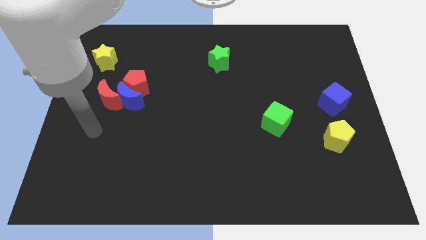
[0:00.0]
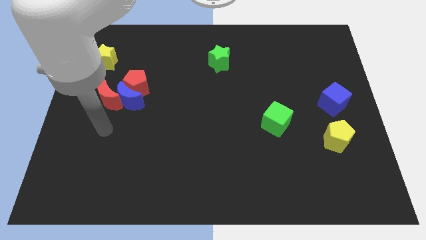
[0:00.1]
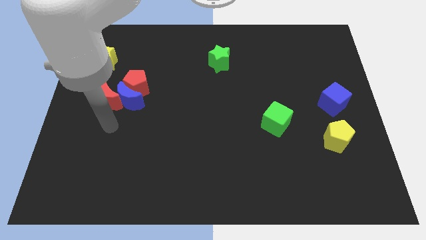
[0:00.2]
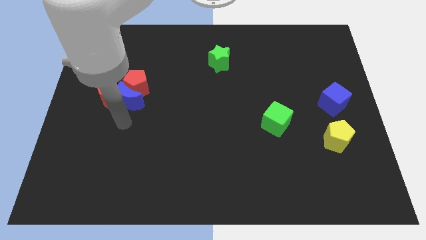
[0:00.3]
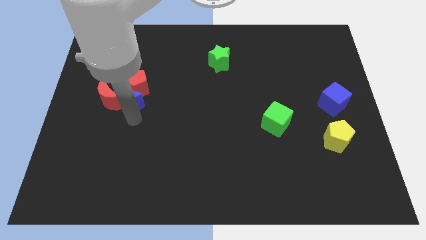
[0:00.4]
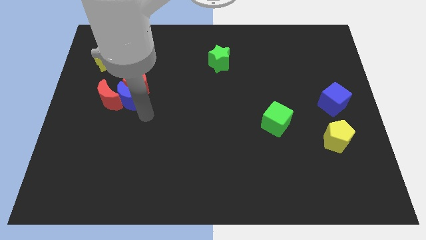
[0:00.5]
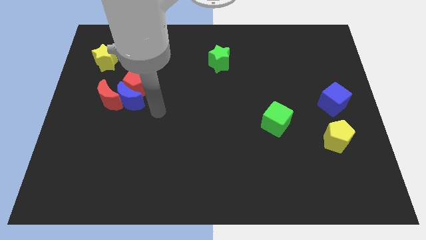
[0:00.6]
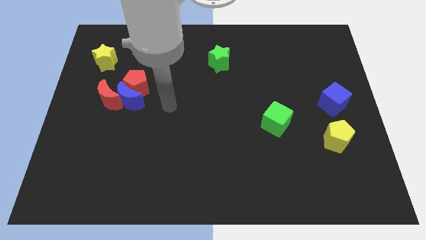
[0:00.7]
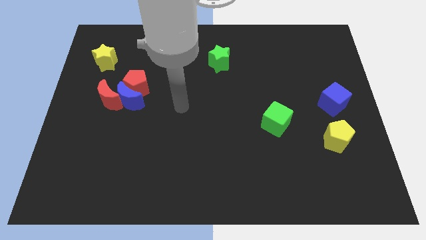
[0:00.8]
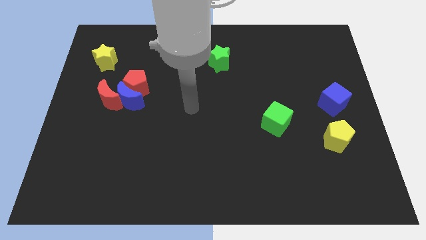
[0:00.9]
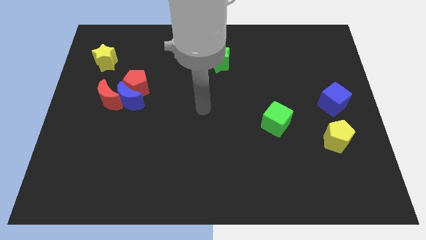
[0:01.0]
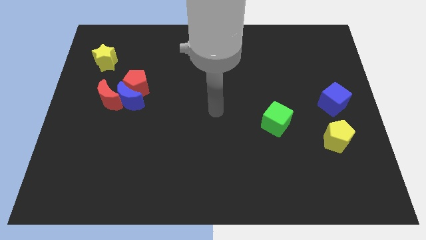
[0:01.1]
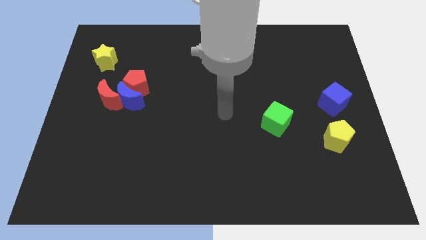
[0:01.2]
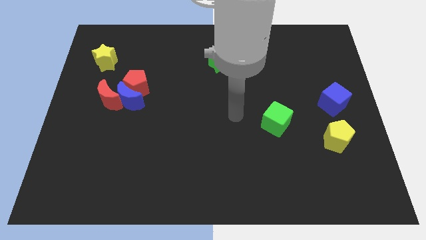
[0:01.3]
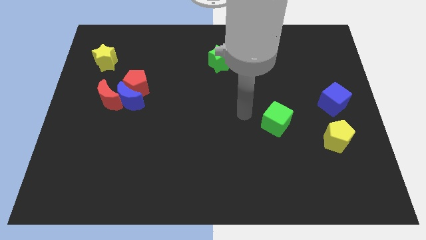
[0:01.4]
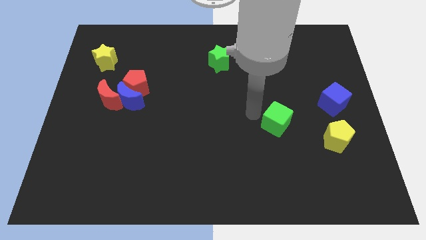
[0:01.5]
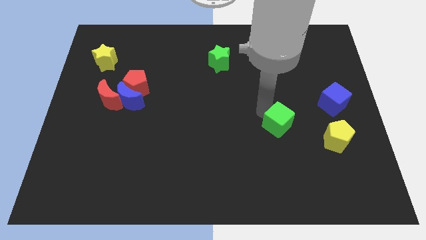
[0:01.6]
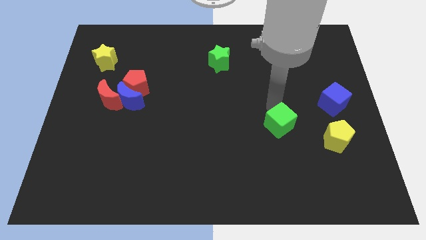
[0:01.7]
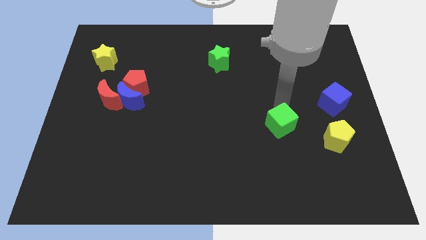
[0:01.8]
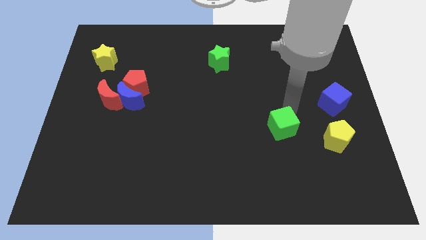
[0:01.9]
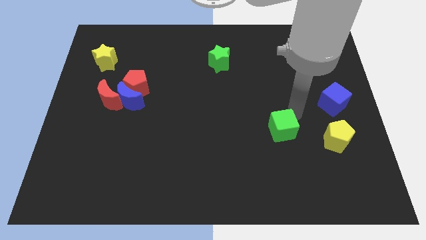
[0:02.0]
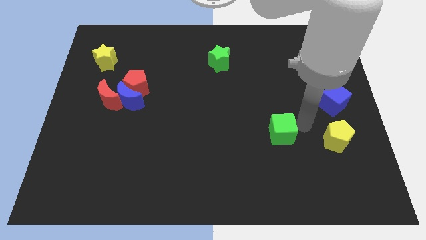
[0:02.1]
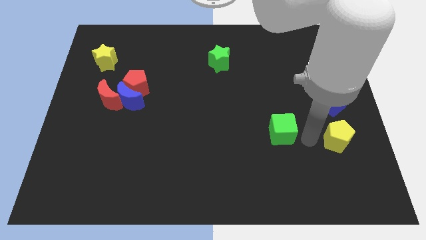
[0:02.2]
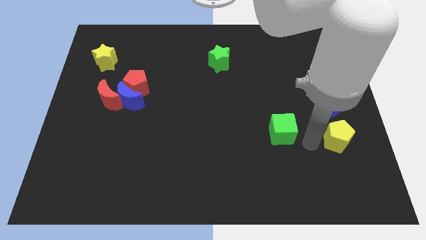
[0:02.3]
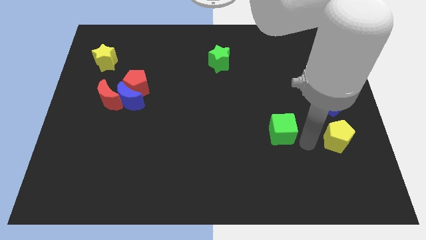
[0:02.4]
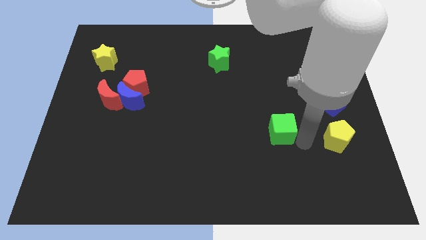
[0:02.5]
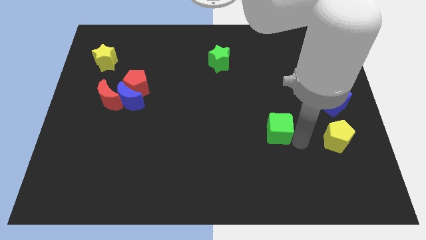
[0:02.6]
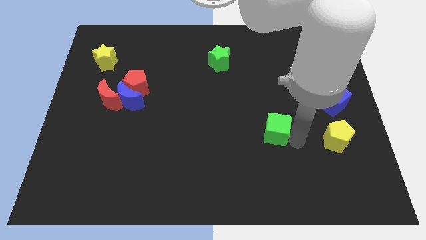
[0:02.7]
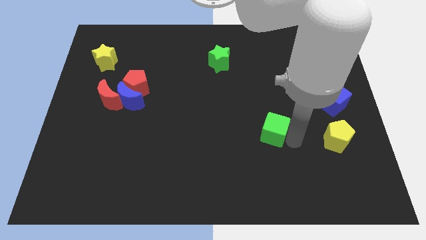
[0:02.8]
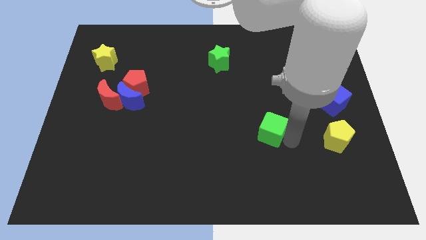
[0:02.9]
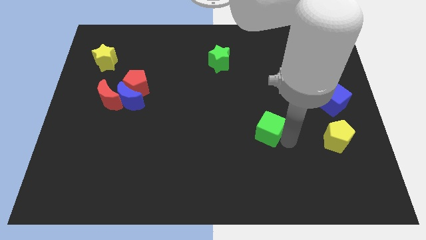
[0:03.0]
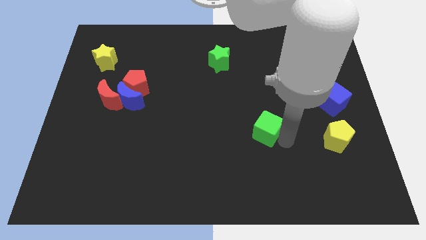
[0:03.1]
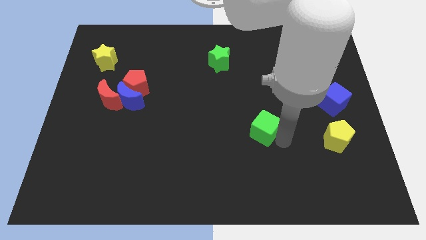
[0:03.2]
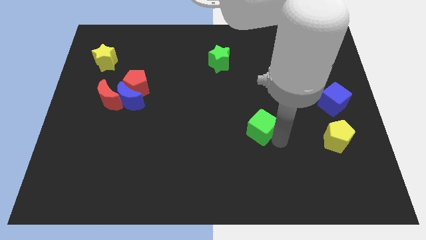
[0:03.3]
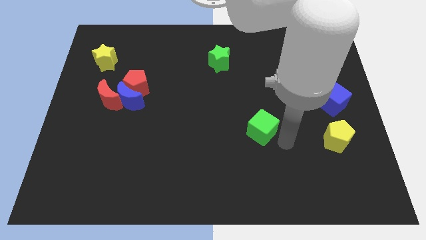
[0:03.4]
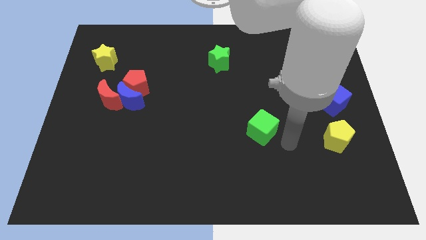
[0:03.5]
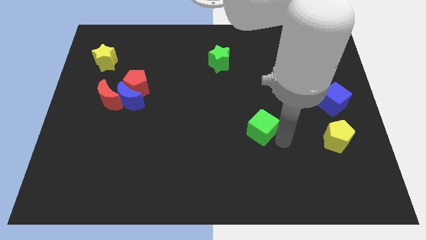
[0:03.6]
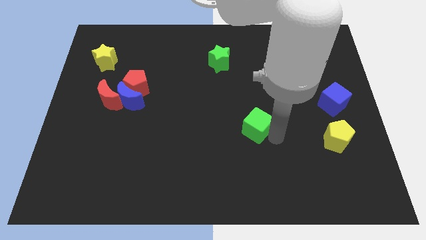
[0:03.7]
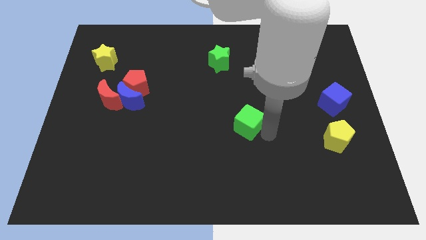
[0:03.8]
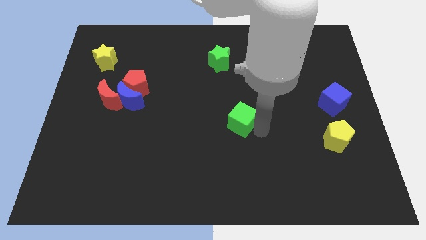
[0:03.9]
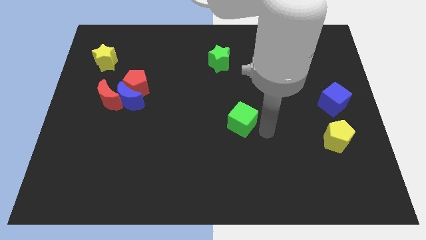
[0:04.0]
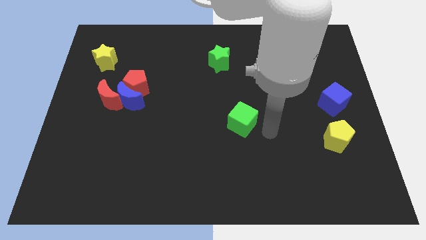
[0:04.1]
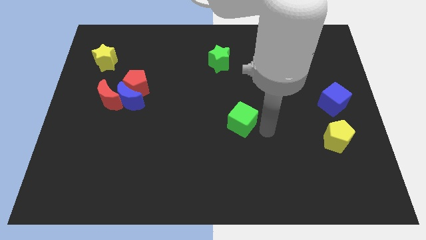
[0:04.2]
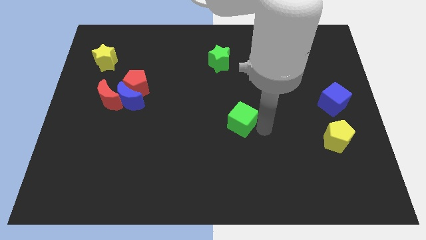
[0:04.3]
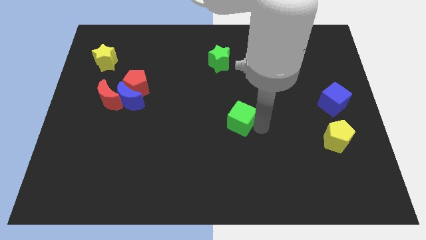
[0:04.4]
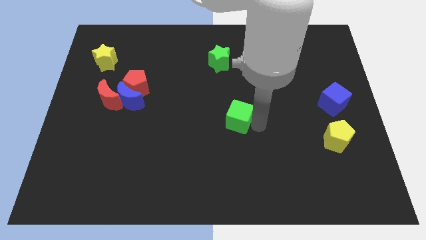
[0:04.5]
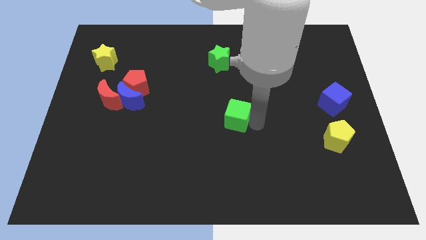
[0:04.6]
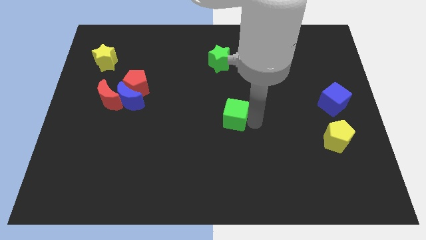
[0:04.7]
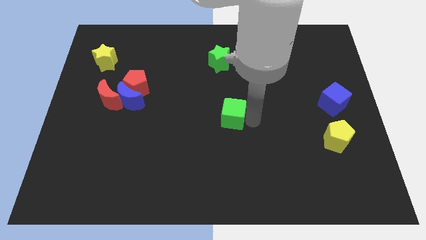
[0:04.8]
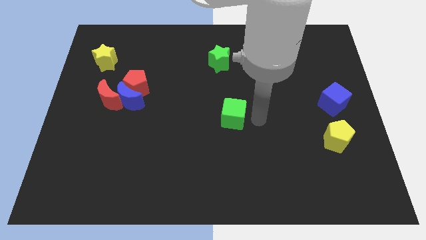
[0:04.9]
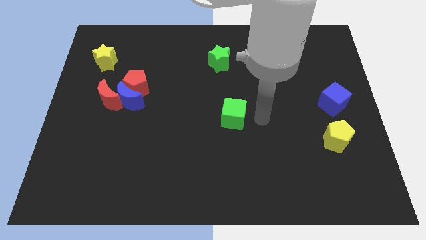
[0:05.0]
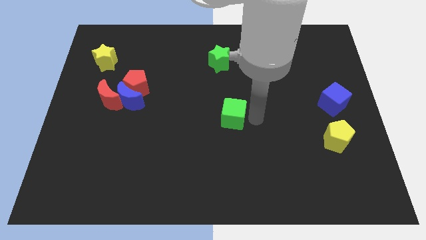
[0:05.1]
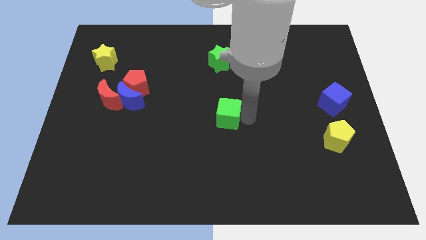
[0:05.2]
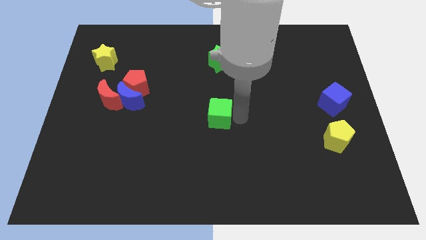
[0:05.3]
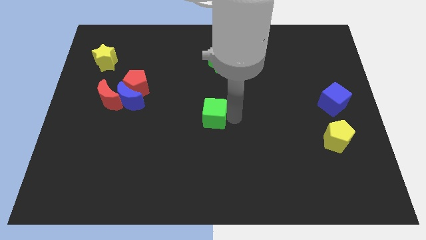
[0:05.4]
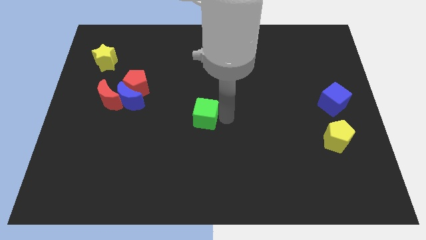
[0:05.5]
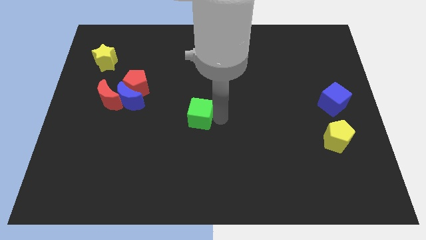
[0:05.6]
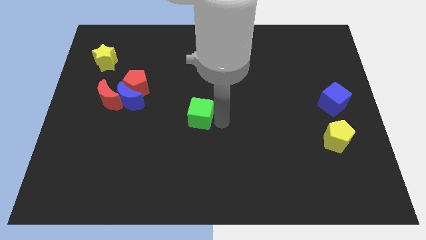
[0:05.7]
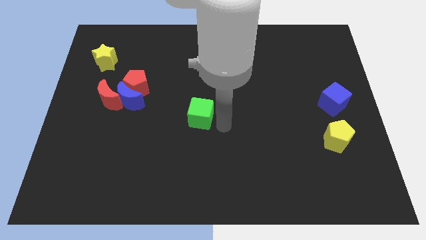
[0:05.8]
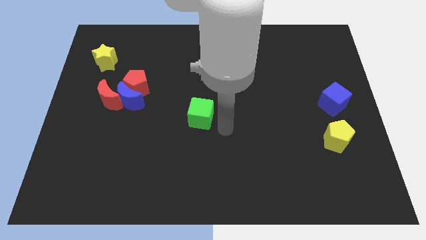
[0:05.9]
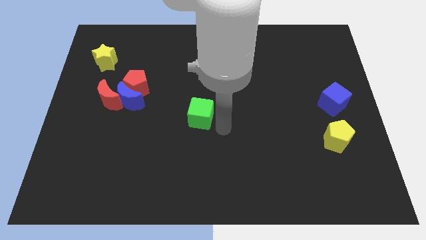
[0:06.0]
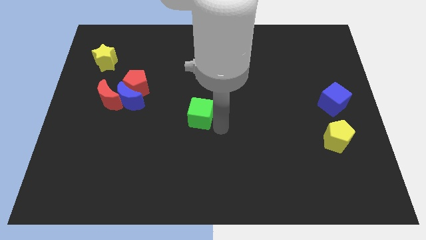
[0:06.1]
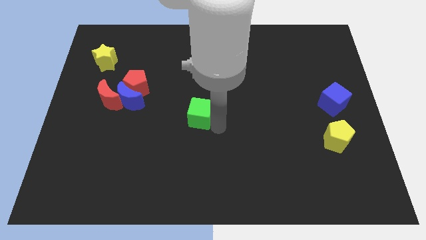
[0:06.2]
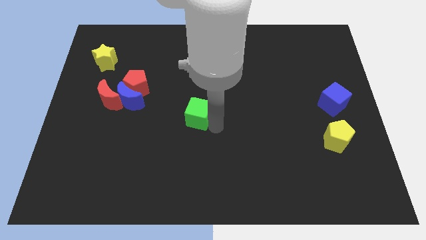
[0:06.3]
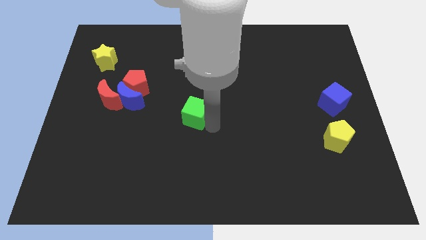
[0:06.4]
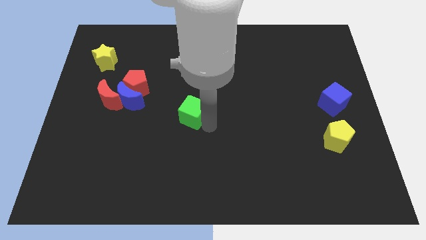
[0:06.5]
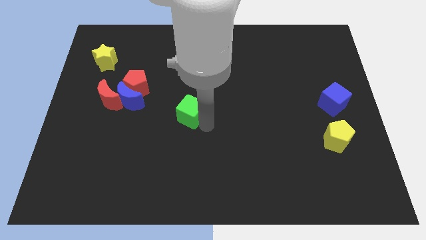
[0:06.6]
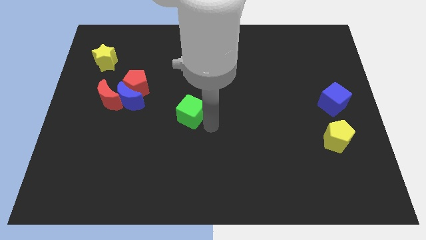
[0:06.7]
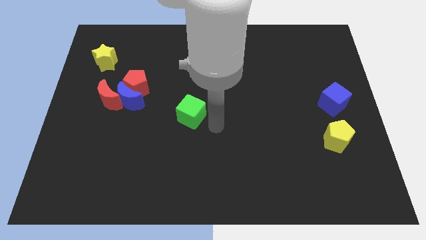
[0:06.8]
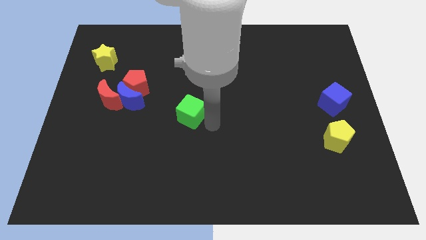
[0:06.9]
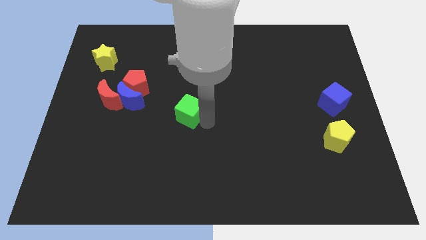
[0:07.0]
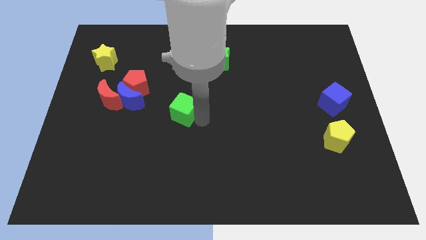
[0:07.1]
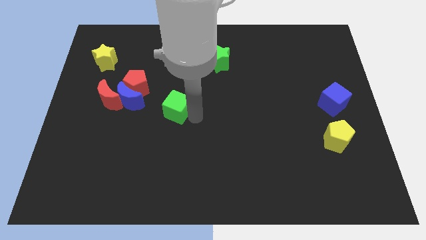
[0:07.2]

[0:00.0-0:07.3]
move the green cube diagonally down and to the right of the red pentagon
